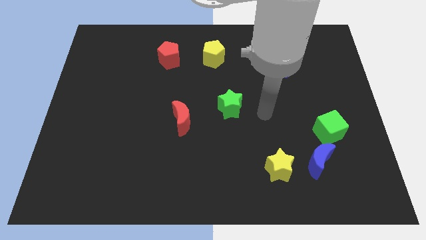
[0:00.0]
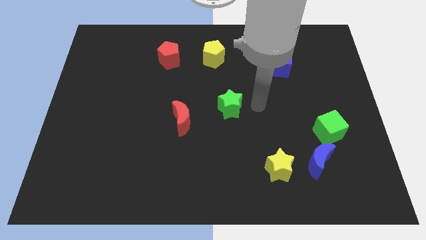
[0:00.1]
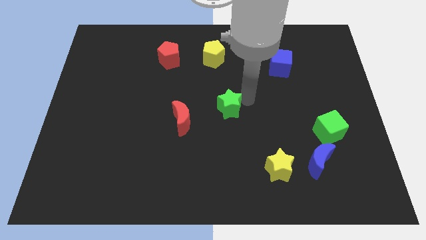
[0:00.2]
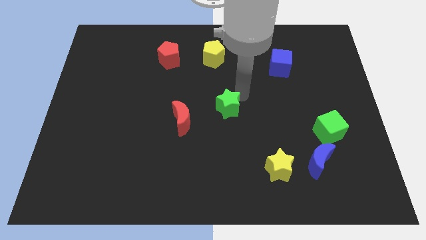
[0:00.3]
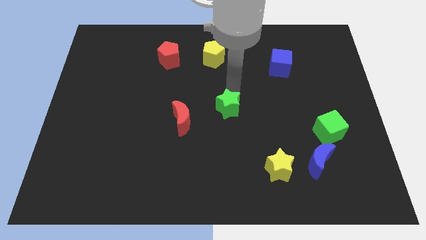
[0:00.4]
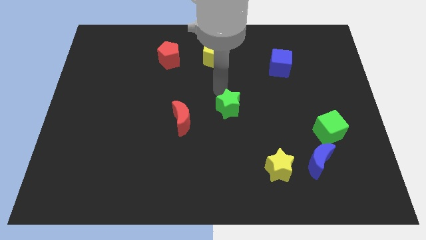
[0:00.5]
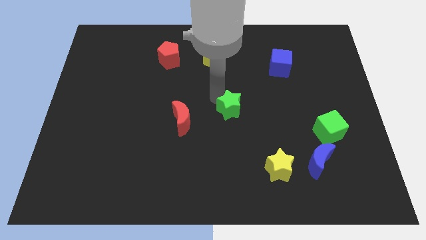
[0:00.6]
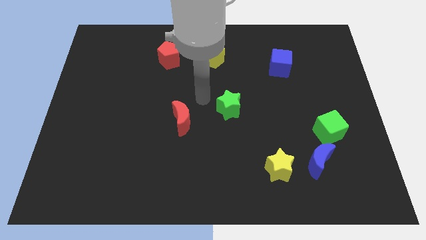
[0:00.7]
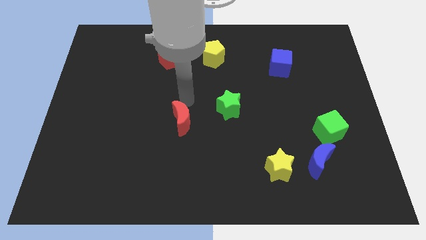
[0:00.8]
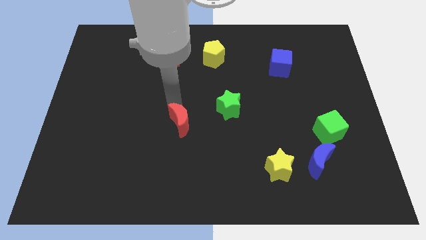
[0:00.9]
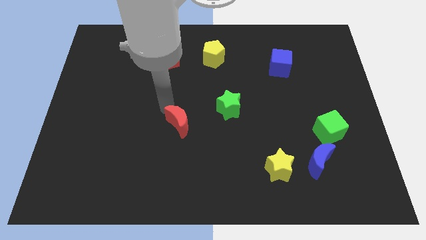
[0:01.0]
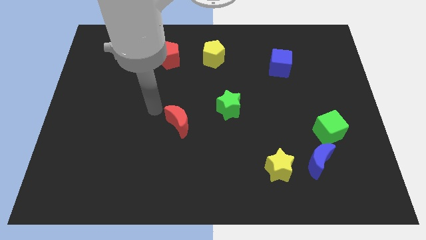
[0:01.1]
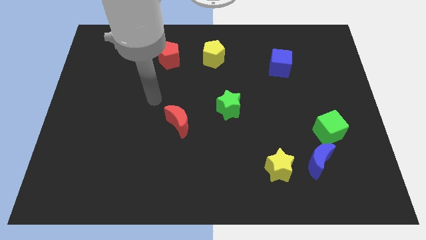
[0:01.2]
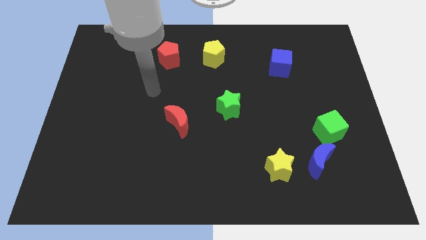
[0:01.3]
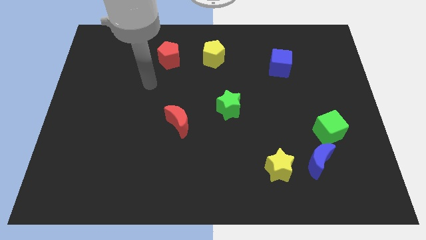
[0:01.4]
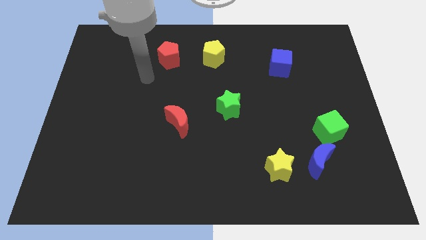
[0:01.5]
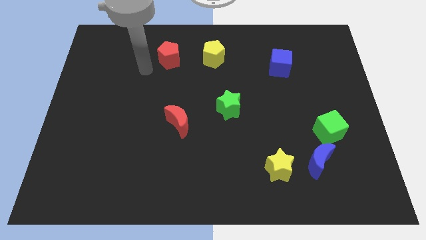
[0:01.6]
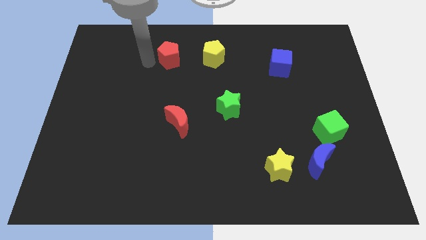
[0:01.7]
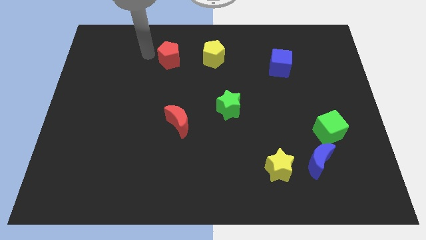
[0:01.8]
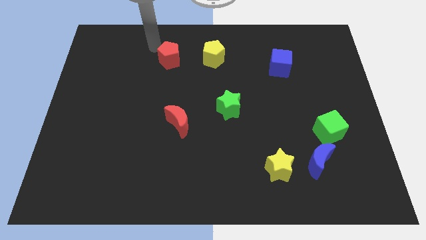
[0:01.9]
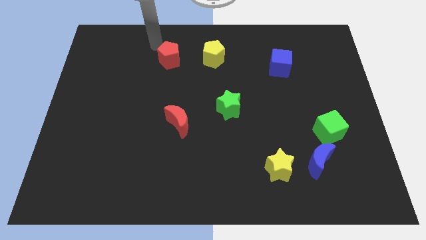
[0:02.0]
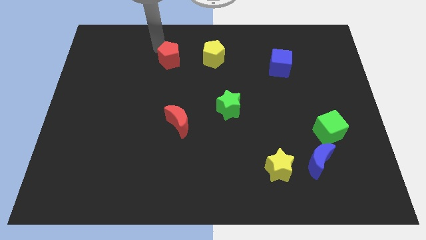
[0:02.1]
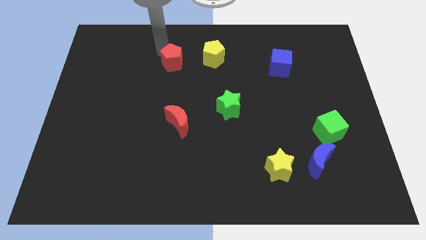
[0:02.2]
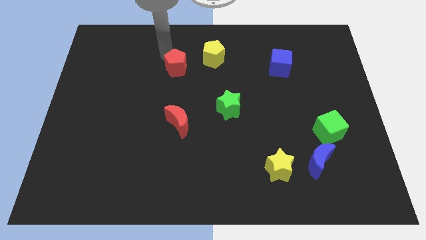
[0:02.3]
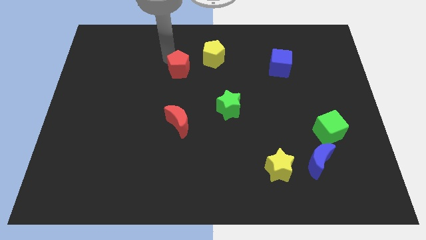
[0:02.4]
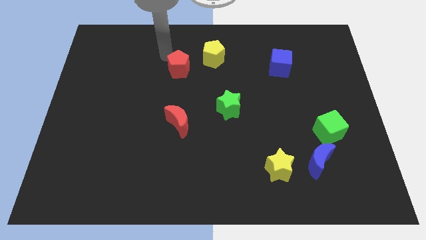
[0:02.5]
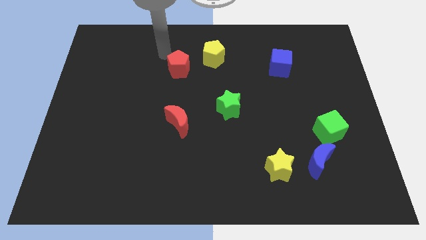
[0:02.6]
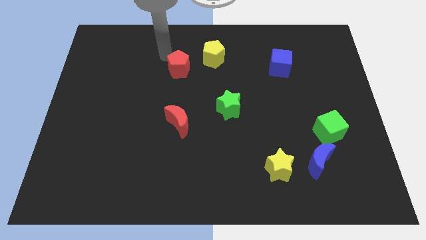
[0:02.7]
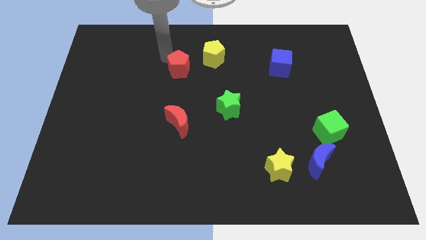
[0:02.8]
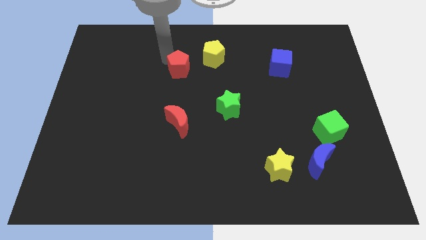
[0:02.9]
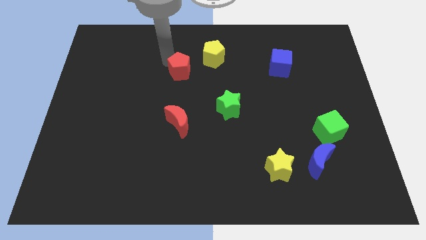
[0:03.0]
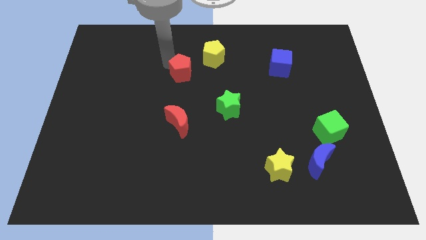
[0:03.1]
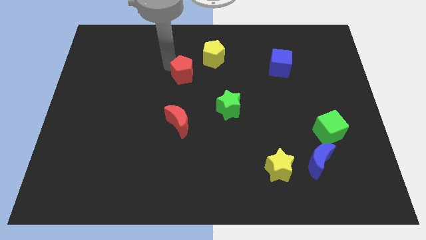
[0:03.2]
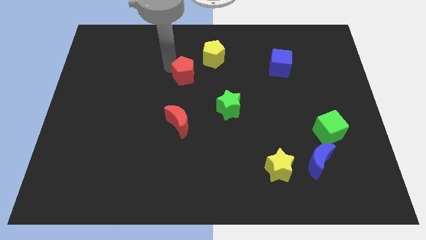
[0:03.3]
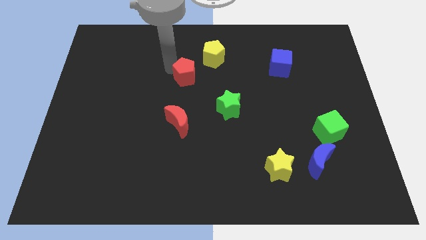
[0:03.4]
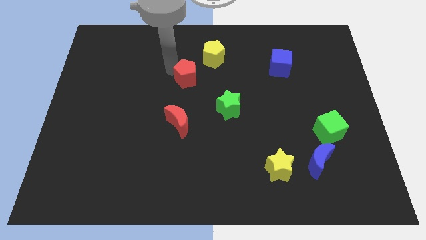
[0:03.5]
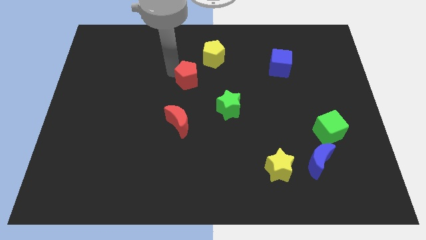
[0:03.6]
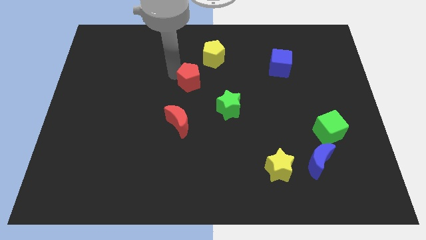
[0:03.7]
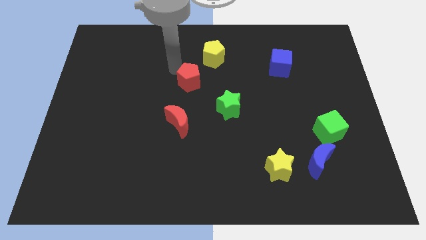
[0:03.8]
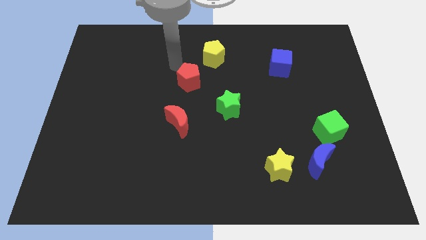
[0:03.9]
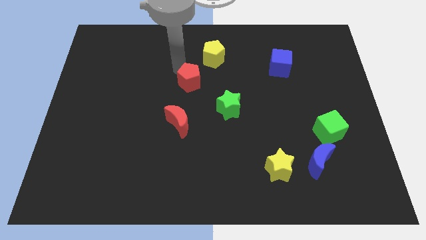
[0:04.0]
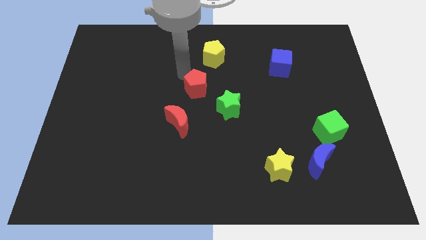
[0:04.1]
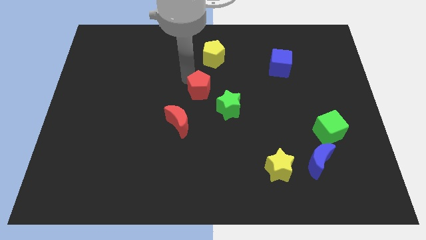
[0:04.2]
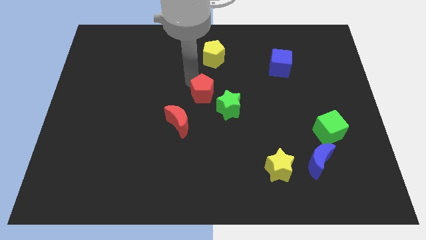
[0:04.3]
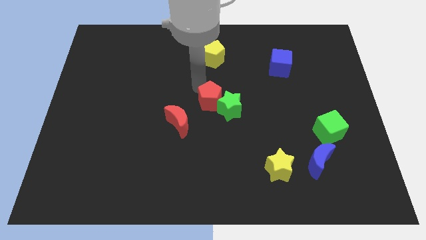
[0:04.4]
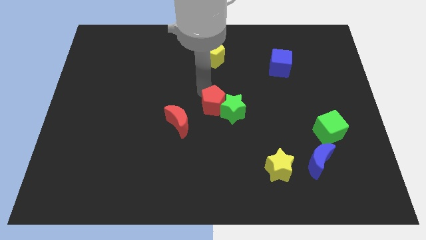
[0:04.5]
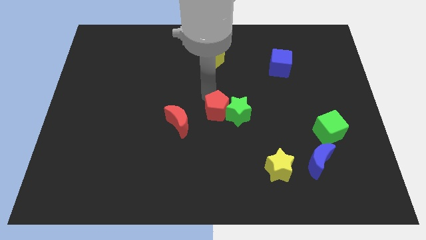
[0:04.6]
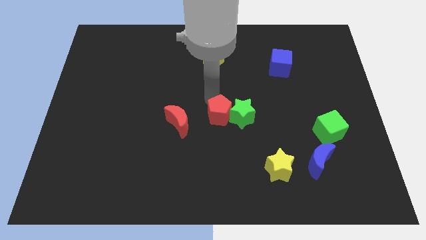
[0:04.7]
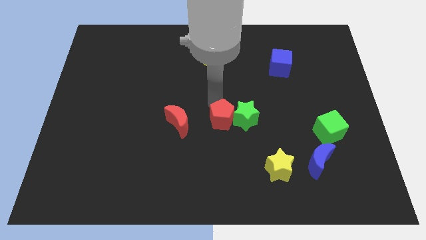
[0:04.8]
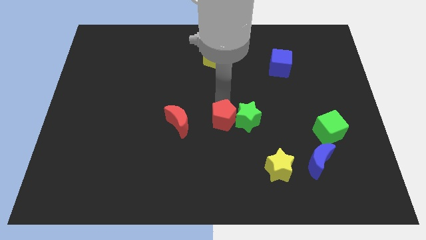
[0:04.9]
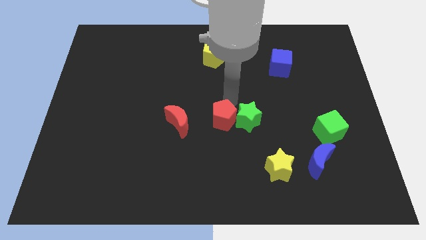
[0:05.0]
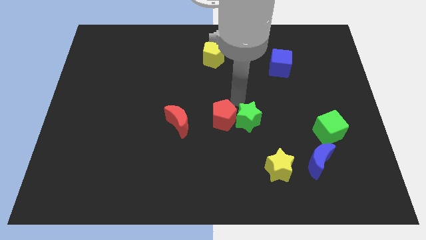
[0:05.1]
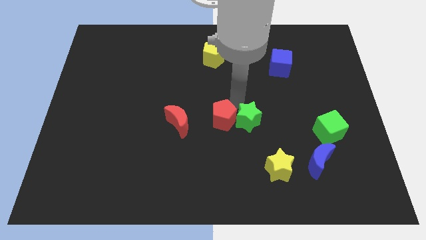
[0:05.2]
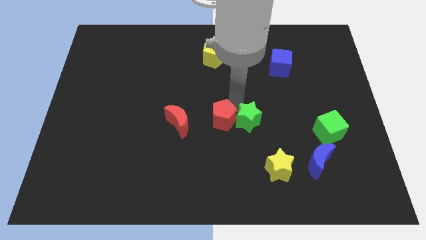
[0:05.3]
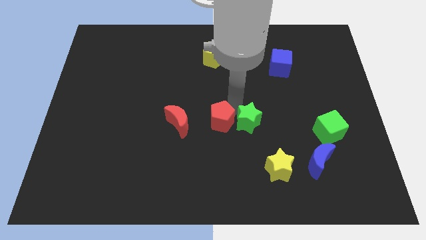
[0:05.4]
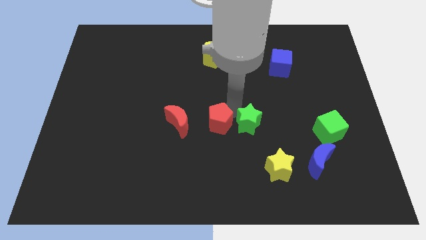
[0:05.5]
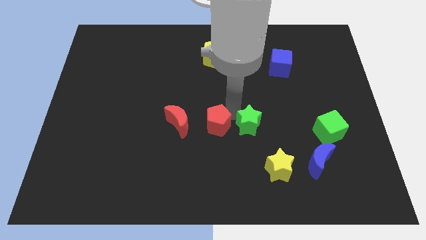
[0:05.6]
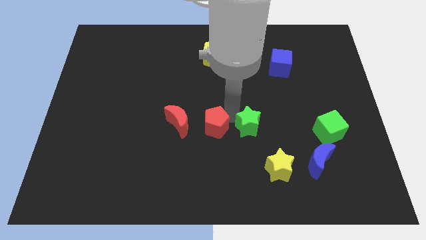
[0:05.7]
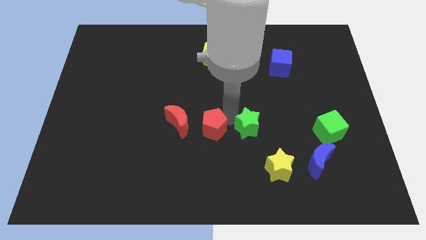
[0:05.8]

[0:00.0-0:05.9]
put the red pentagon to the bottom right of the red moon
